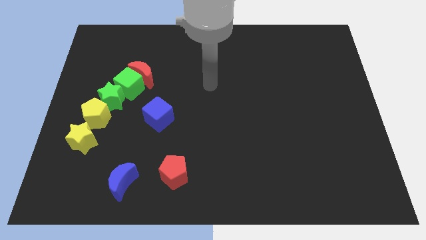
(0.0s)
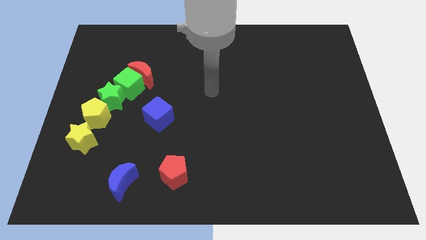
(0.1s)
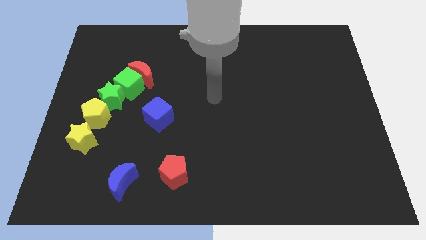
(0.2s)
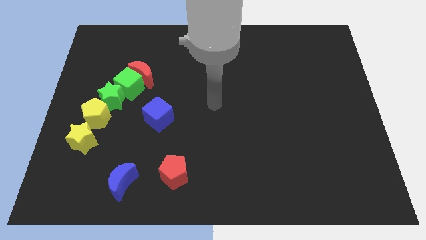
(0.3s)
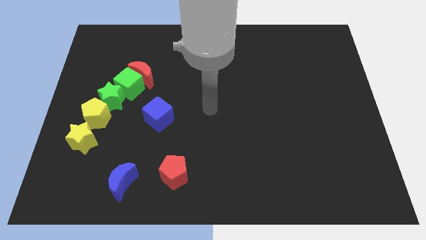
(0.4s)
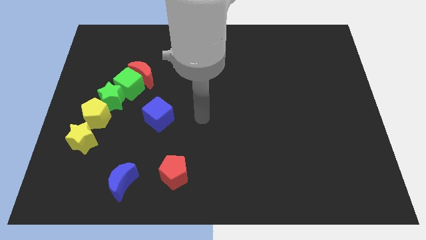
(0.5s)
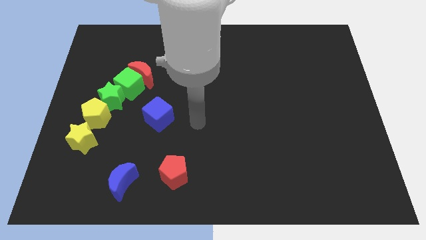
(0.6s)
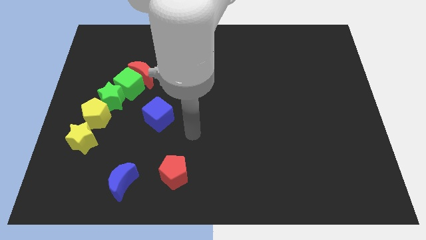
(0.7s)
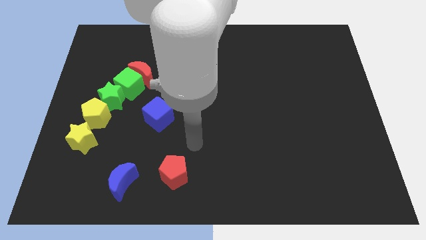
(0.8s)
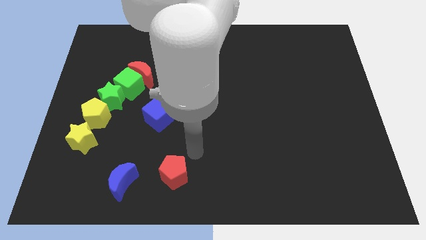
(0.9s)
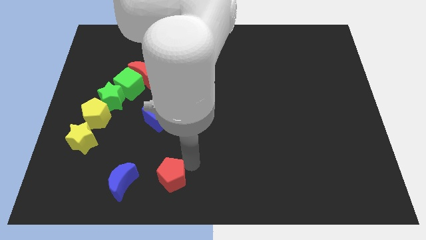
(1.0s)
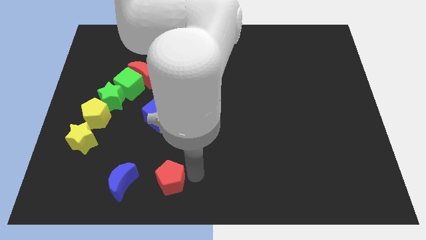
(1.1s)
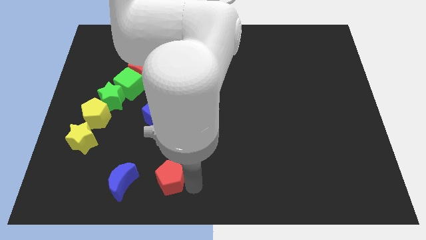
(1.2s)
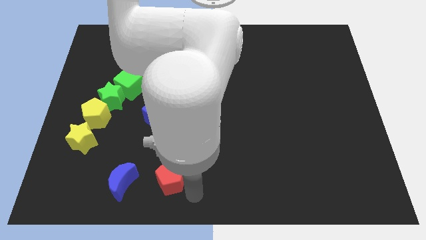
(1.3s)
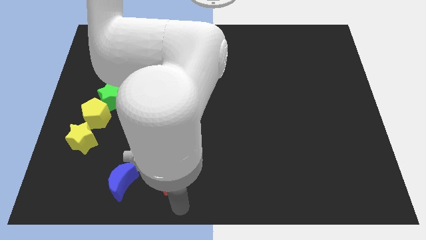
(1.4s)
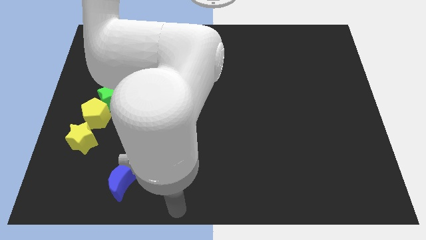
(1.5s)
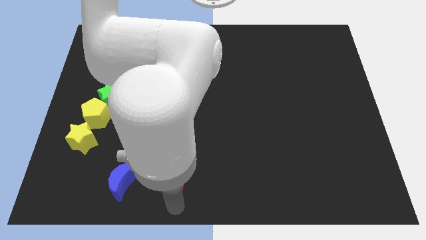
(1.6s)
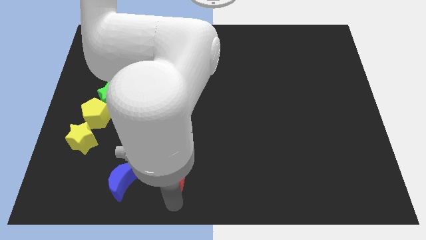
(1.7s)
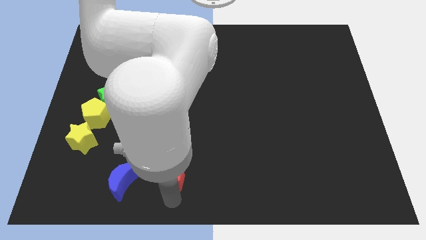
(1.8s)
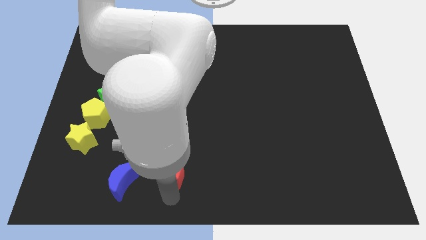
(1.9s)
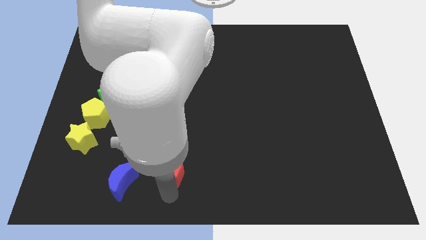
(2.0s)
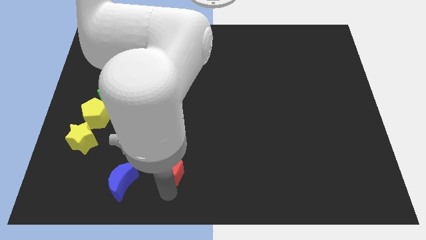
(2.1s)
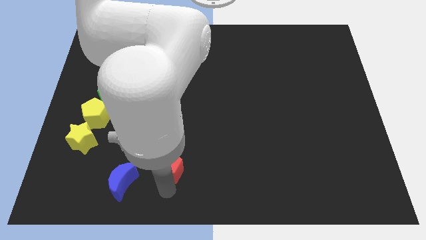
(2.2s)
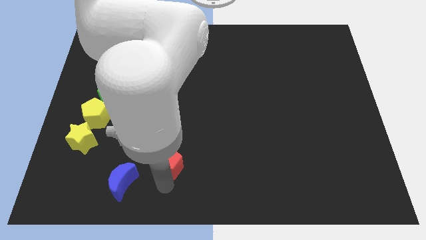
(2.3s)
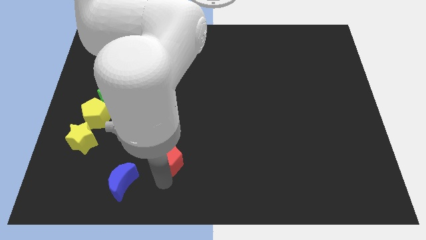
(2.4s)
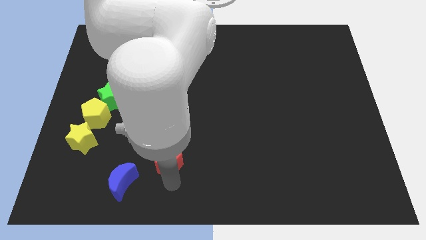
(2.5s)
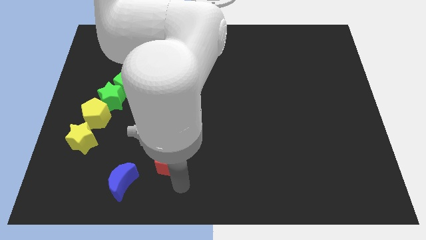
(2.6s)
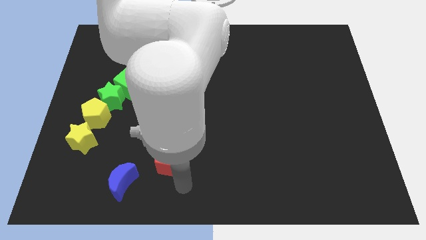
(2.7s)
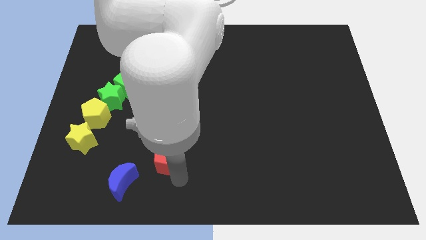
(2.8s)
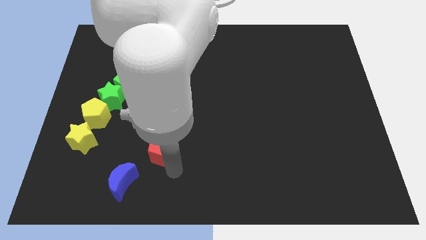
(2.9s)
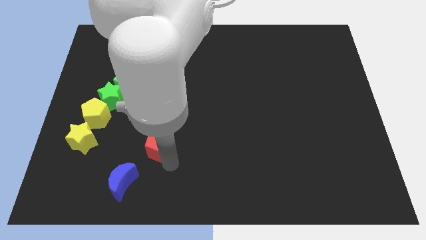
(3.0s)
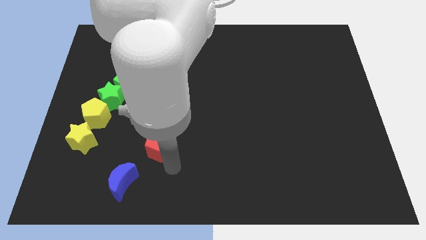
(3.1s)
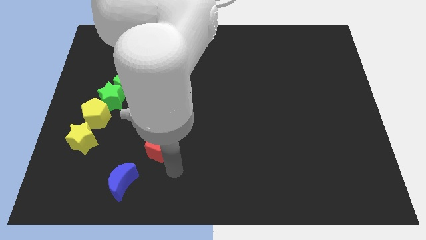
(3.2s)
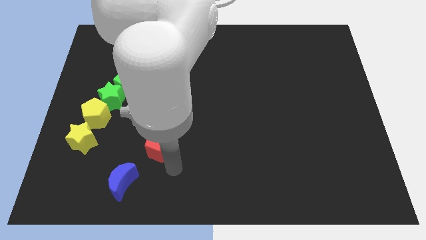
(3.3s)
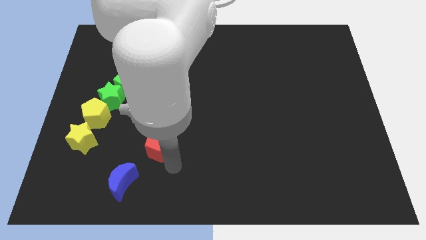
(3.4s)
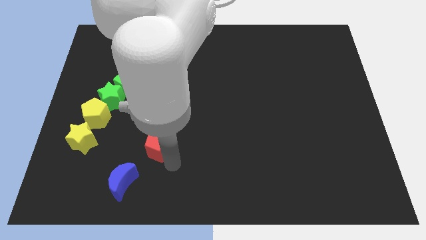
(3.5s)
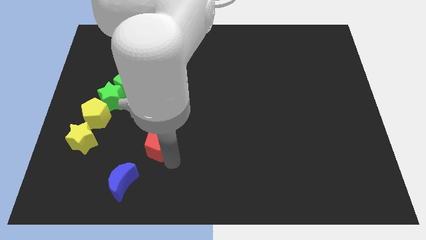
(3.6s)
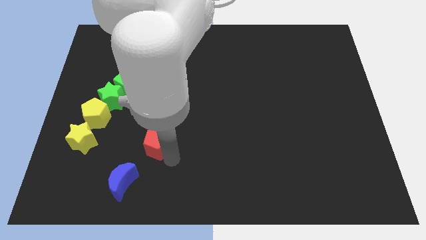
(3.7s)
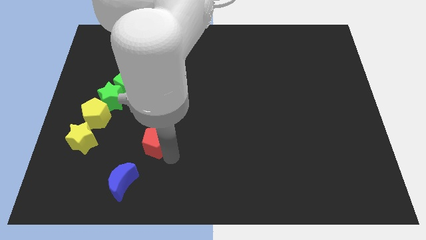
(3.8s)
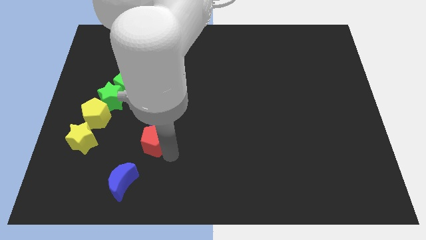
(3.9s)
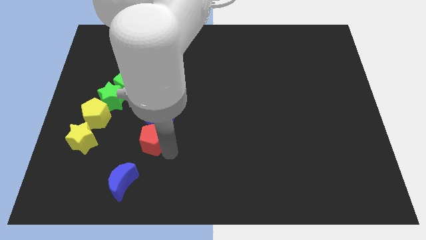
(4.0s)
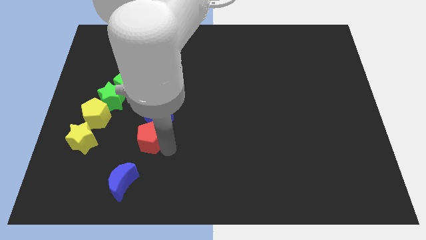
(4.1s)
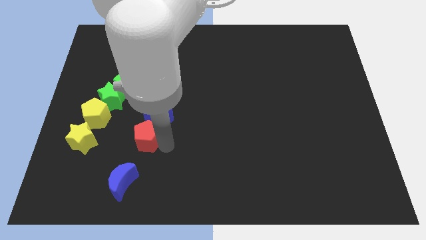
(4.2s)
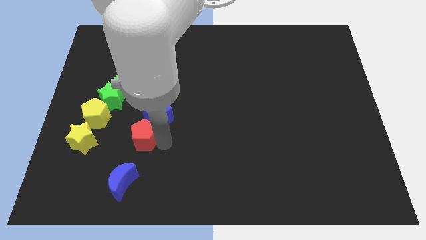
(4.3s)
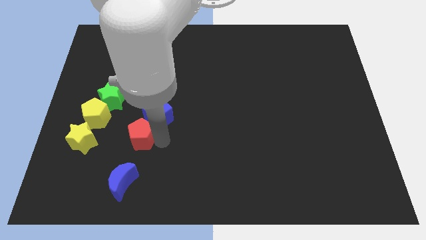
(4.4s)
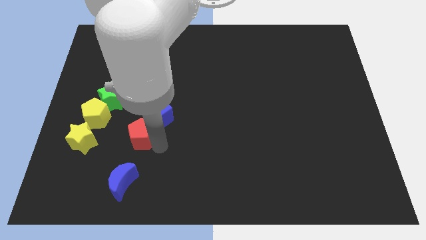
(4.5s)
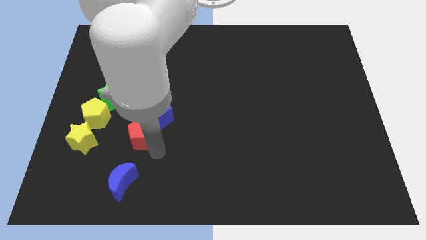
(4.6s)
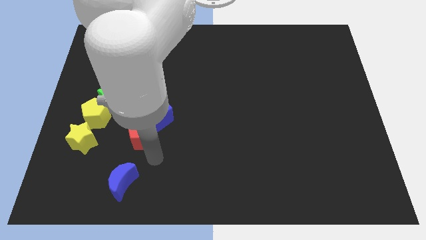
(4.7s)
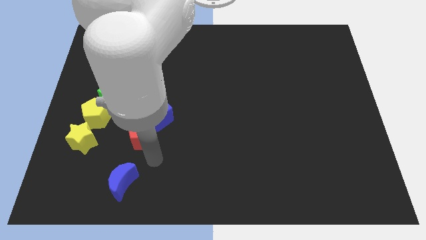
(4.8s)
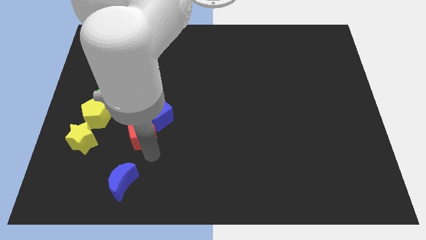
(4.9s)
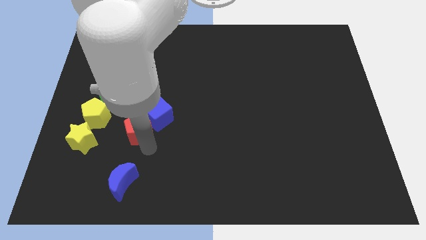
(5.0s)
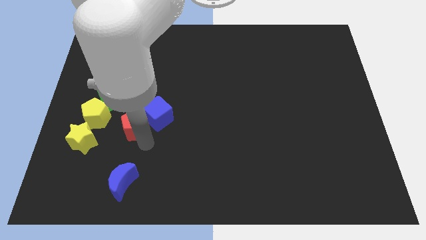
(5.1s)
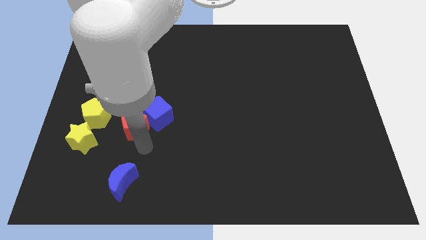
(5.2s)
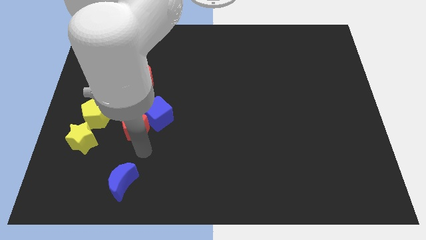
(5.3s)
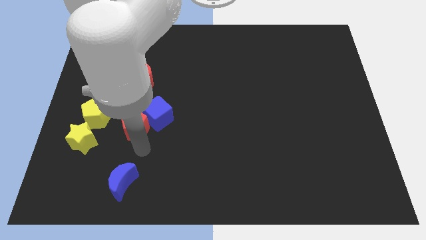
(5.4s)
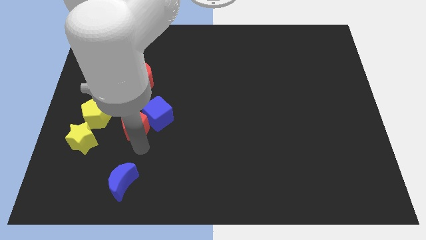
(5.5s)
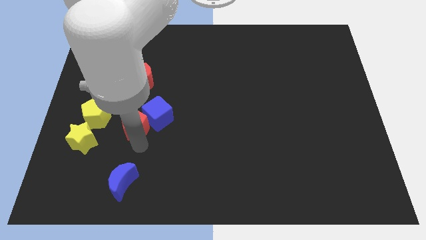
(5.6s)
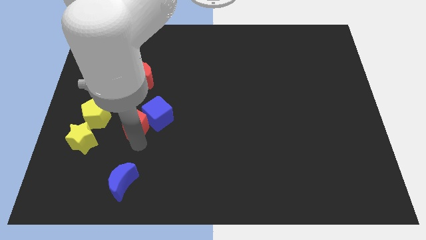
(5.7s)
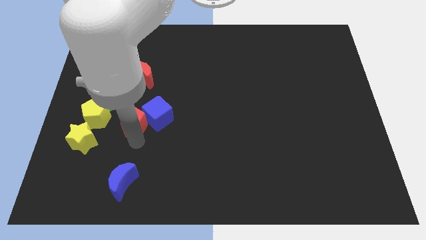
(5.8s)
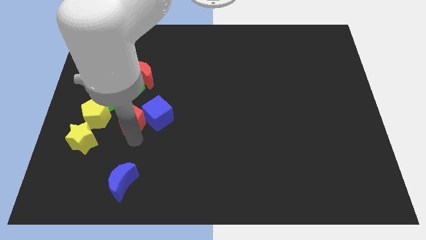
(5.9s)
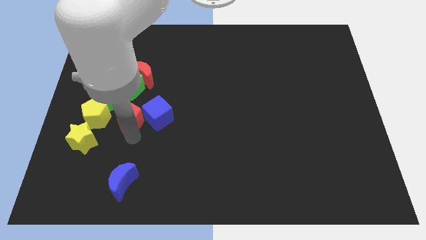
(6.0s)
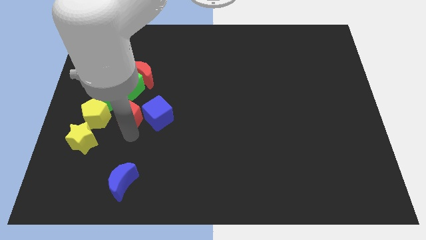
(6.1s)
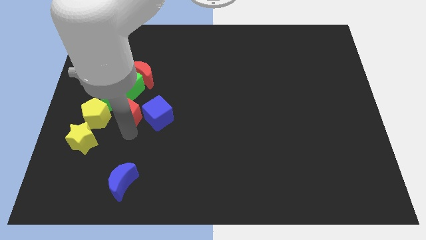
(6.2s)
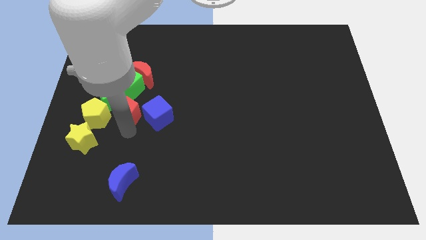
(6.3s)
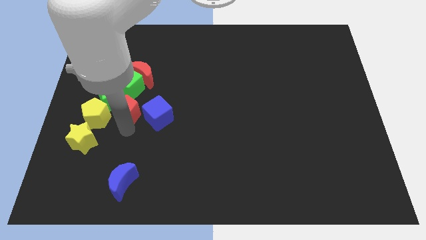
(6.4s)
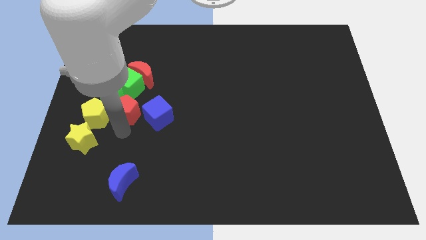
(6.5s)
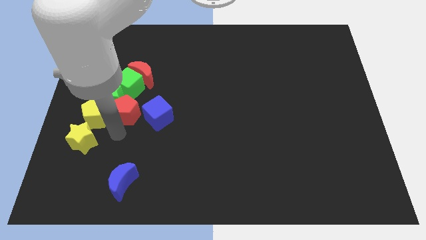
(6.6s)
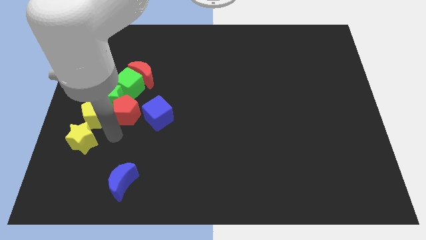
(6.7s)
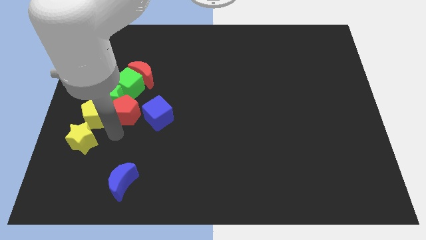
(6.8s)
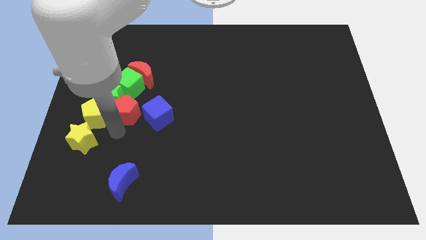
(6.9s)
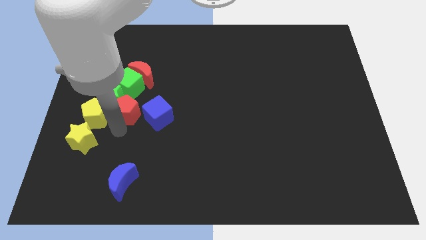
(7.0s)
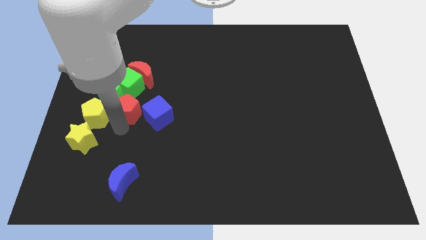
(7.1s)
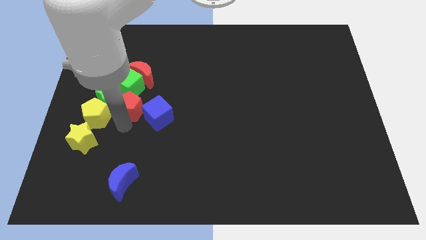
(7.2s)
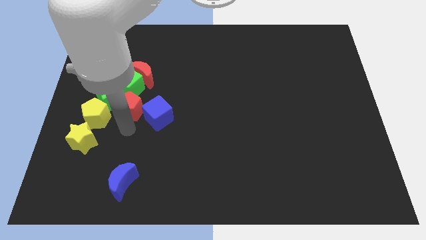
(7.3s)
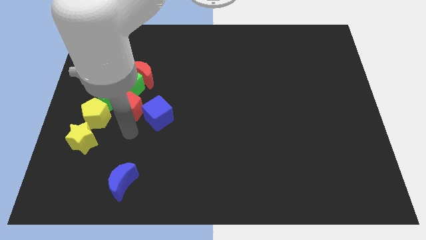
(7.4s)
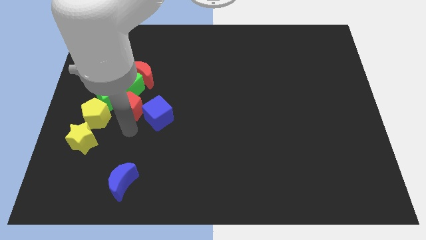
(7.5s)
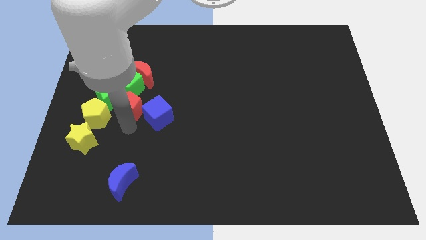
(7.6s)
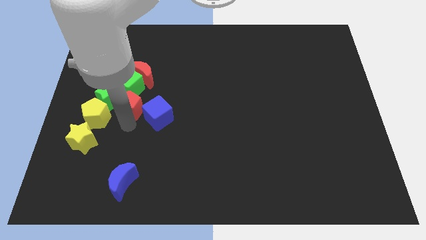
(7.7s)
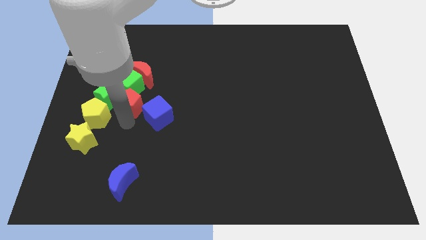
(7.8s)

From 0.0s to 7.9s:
slide the red pentagon towards the green cube
